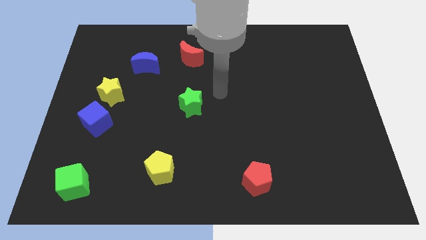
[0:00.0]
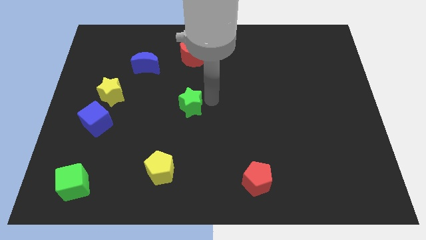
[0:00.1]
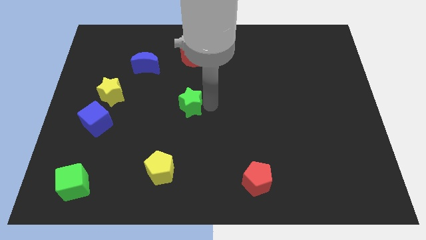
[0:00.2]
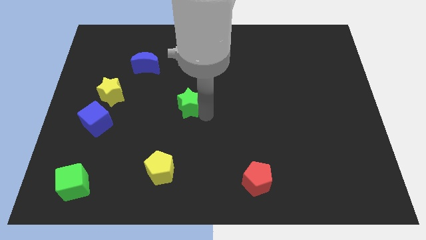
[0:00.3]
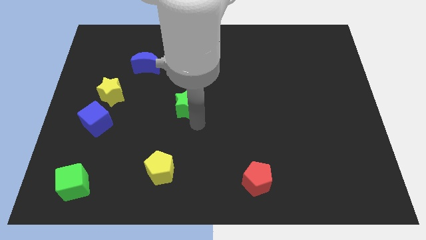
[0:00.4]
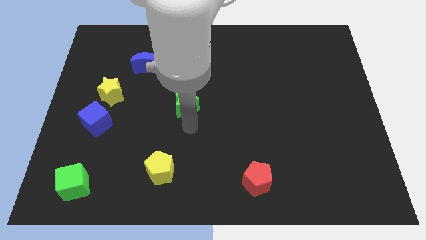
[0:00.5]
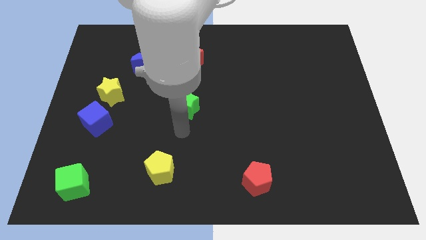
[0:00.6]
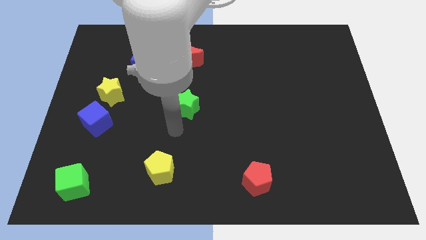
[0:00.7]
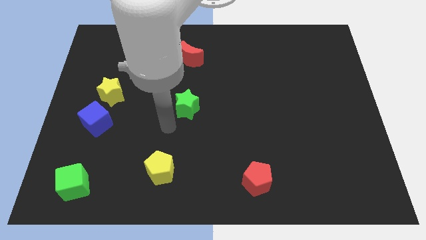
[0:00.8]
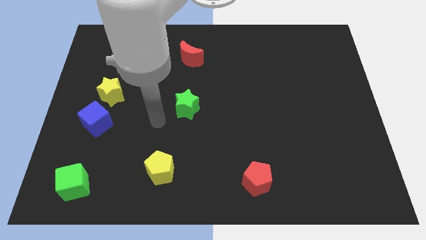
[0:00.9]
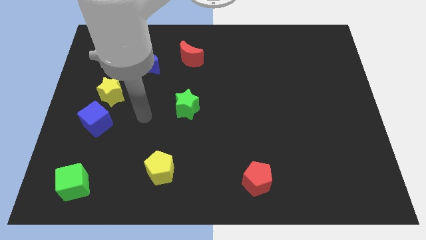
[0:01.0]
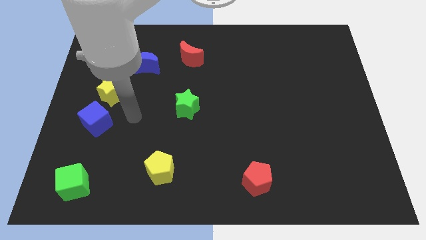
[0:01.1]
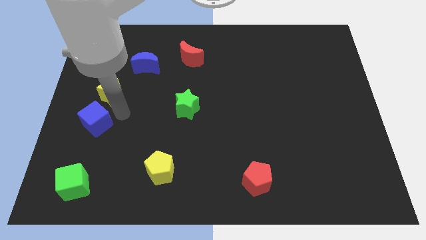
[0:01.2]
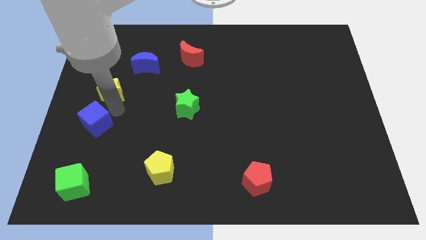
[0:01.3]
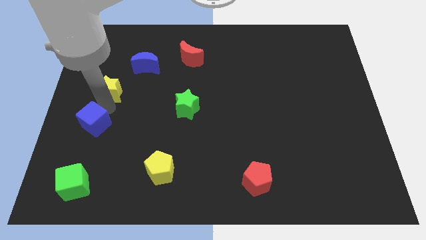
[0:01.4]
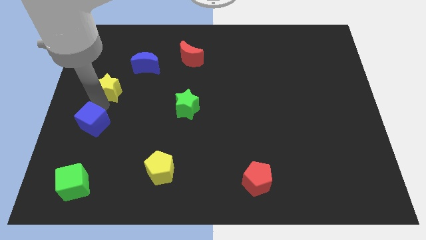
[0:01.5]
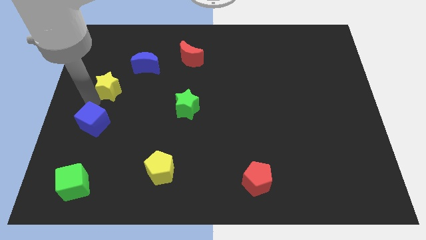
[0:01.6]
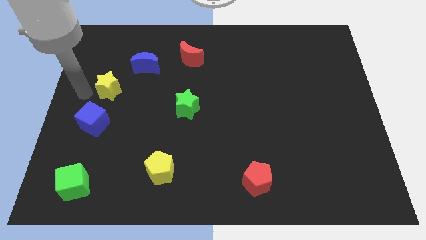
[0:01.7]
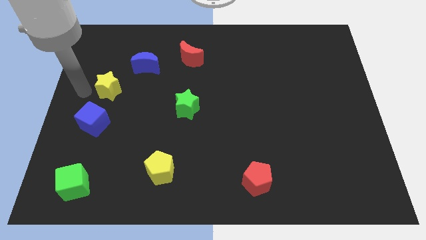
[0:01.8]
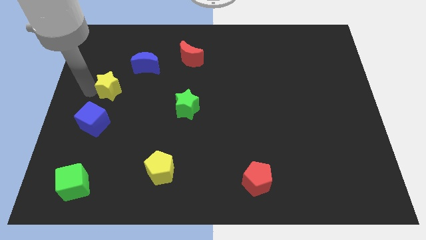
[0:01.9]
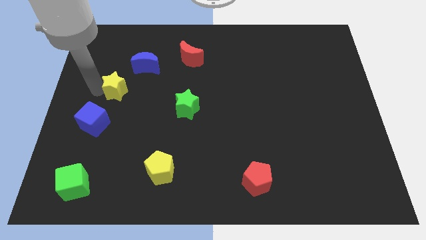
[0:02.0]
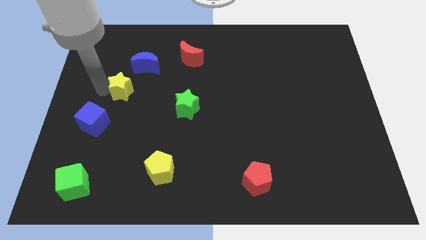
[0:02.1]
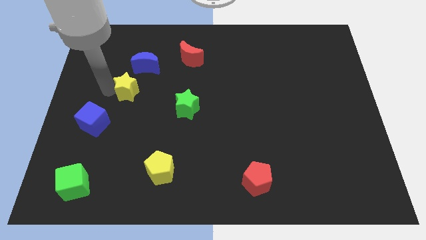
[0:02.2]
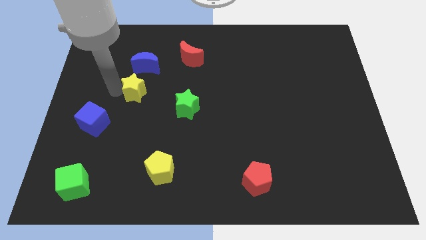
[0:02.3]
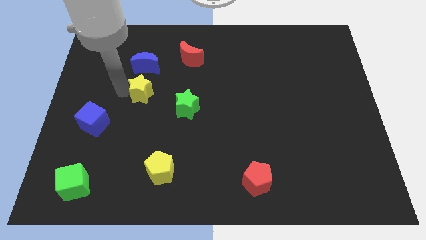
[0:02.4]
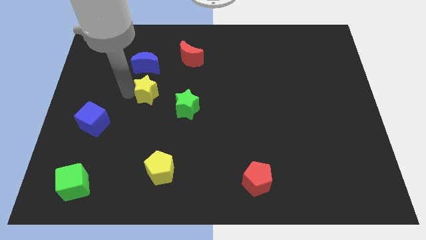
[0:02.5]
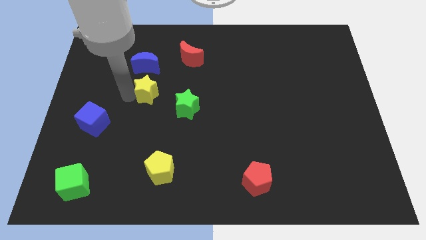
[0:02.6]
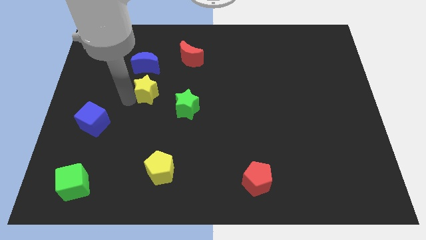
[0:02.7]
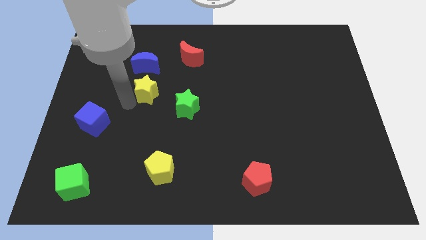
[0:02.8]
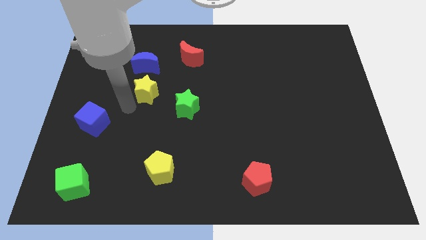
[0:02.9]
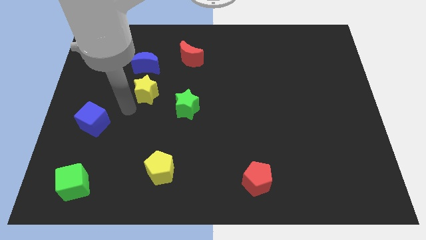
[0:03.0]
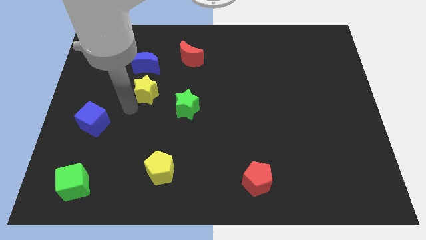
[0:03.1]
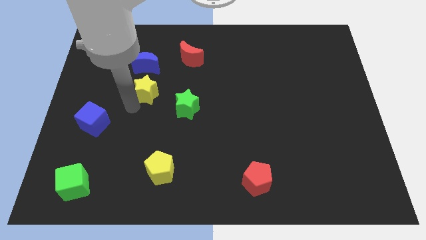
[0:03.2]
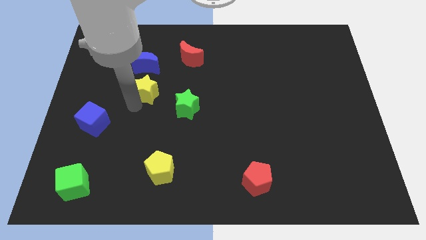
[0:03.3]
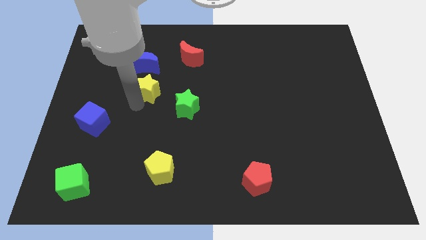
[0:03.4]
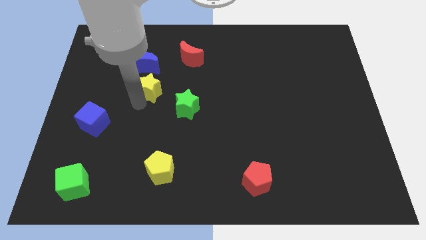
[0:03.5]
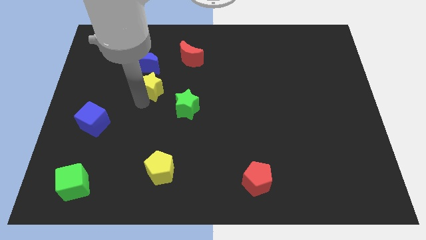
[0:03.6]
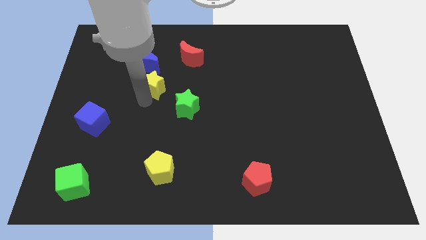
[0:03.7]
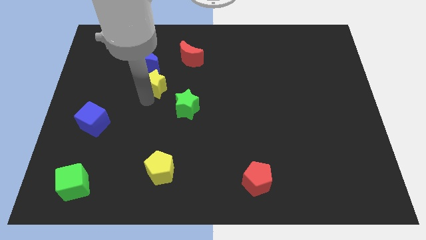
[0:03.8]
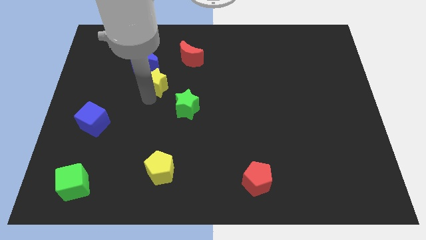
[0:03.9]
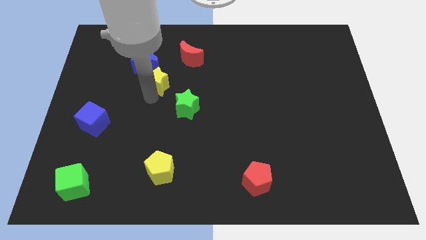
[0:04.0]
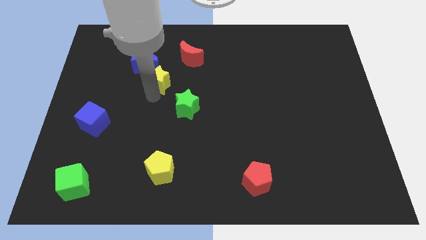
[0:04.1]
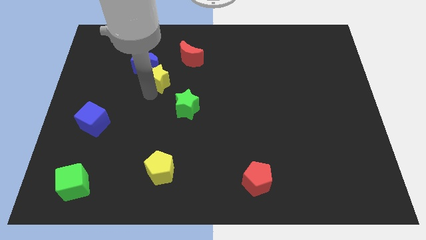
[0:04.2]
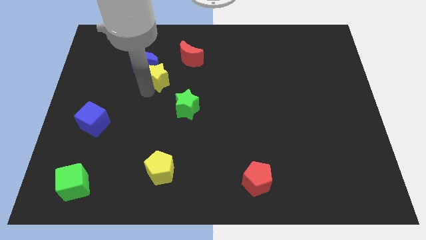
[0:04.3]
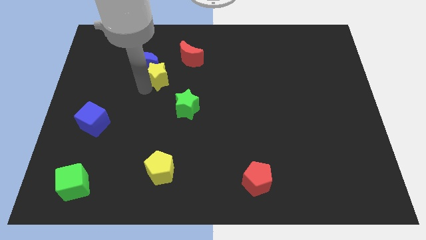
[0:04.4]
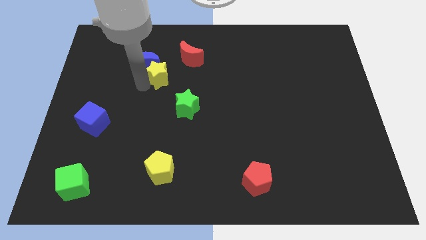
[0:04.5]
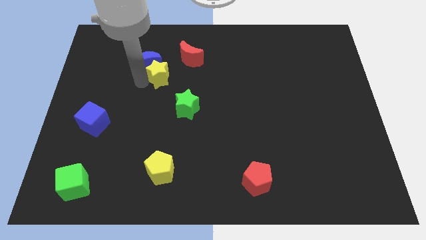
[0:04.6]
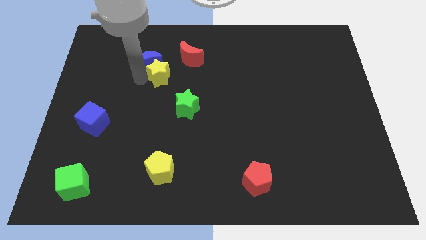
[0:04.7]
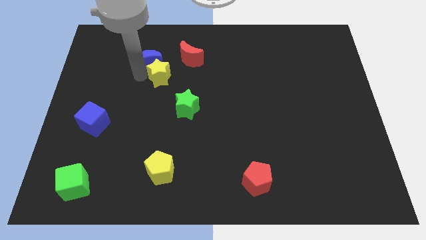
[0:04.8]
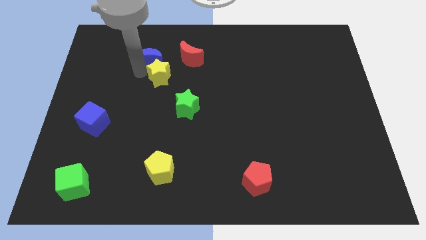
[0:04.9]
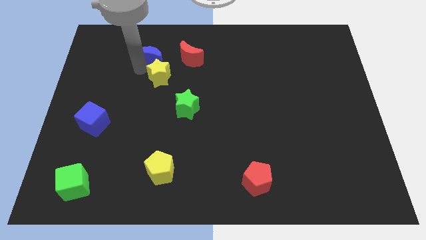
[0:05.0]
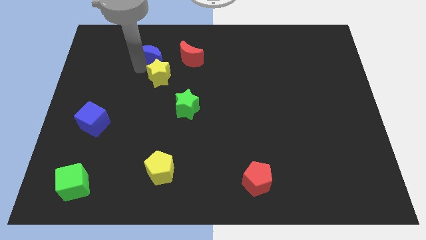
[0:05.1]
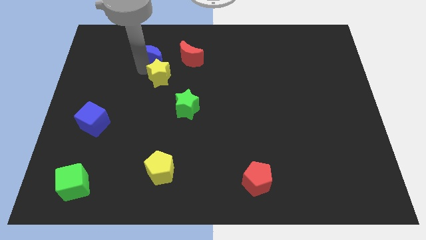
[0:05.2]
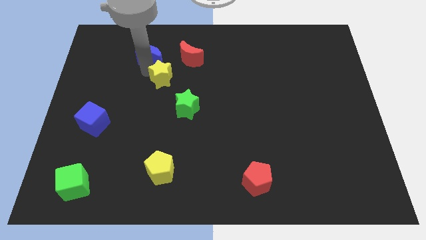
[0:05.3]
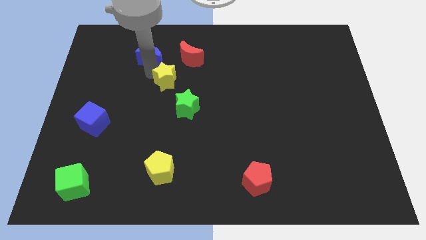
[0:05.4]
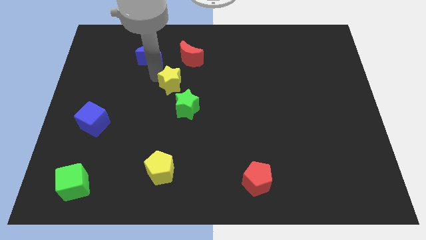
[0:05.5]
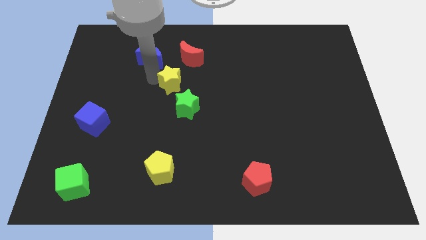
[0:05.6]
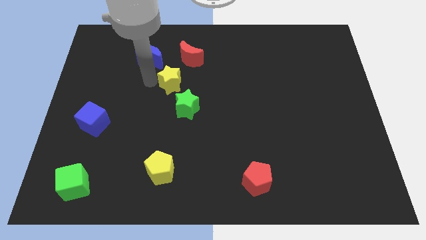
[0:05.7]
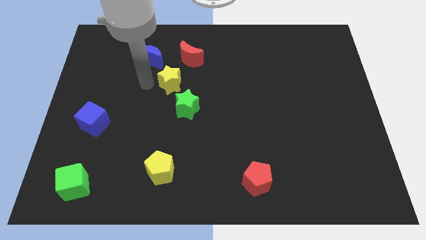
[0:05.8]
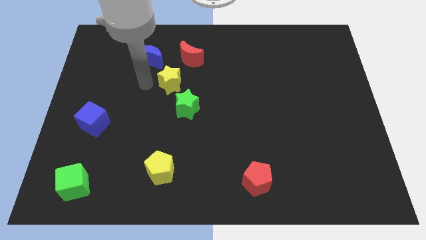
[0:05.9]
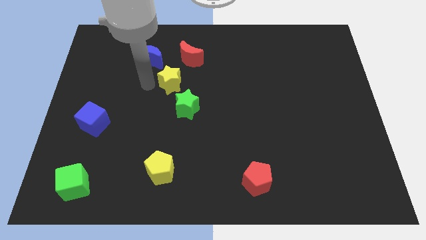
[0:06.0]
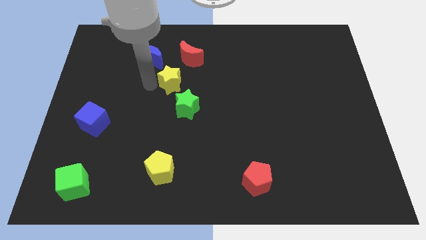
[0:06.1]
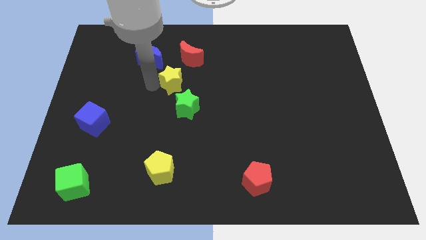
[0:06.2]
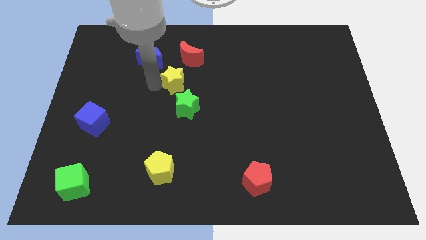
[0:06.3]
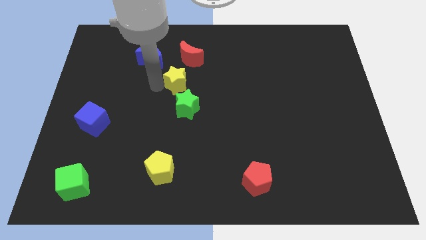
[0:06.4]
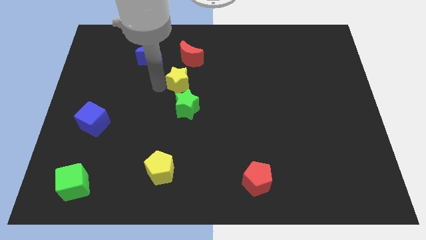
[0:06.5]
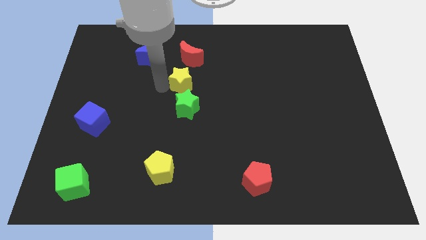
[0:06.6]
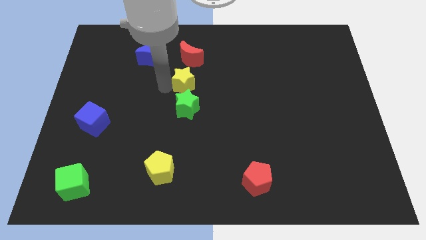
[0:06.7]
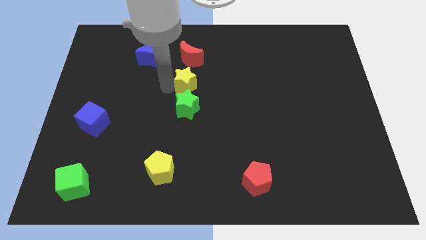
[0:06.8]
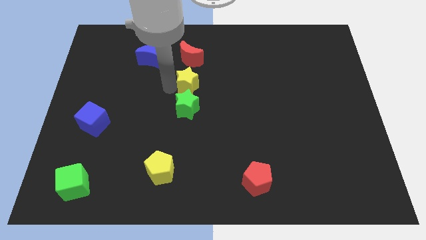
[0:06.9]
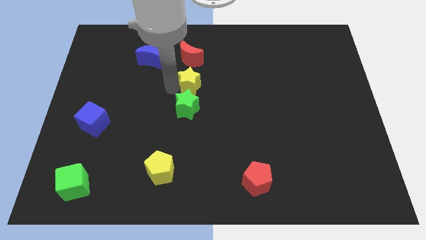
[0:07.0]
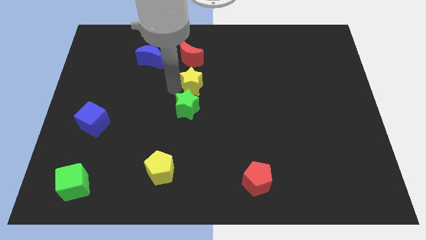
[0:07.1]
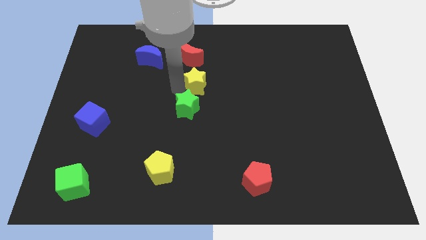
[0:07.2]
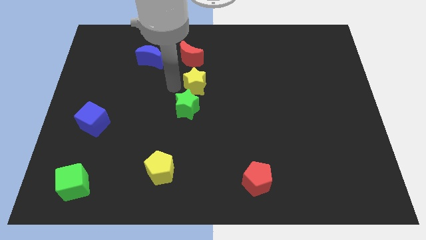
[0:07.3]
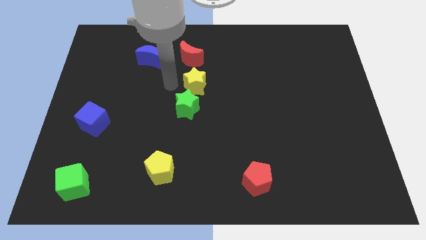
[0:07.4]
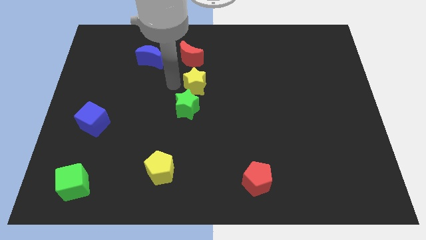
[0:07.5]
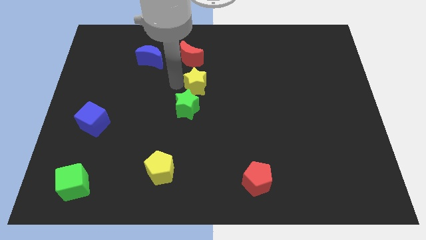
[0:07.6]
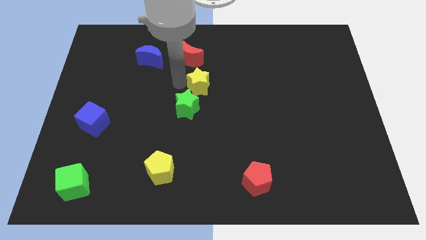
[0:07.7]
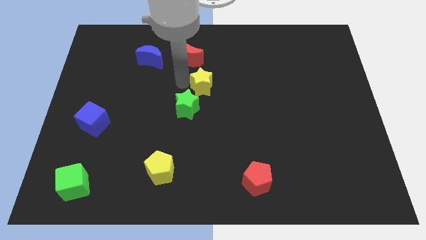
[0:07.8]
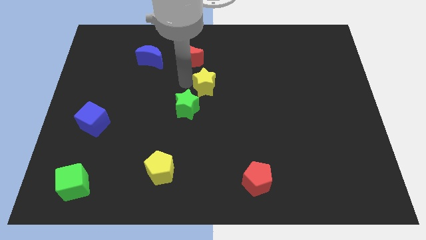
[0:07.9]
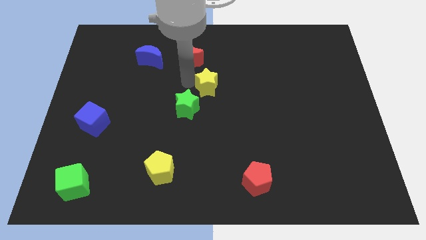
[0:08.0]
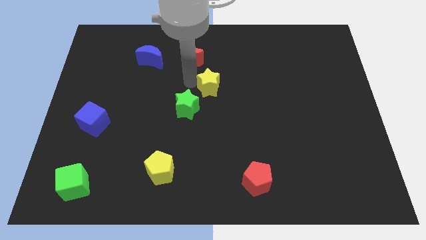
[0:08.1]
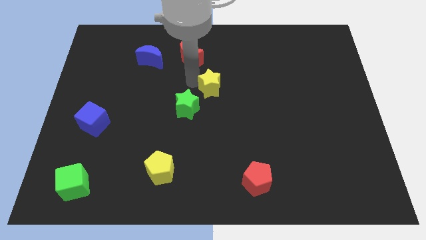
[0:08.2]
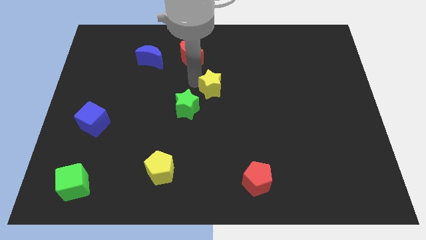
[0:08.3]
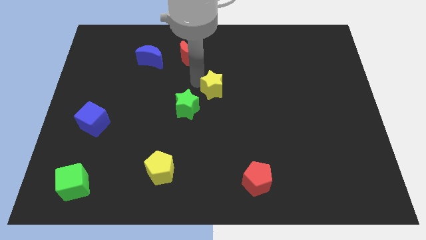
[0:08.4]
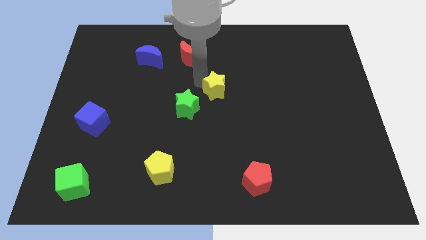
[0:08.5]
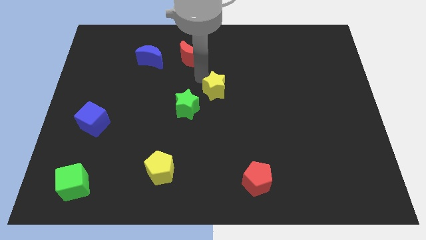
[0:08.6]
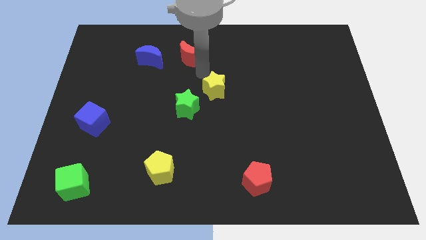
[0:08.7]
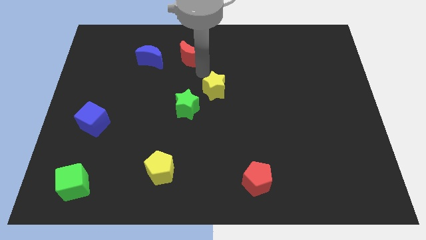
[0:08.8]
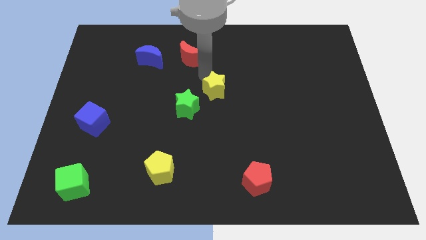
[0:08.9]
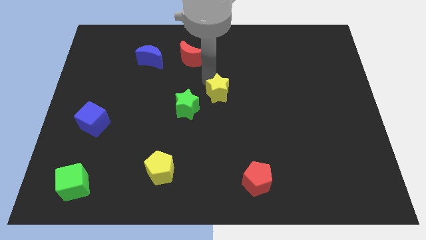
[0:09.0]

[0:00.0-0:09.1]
put the yellow star just right of the green star
